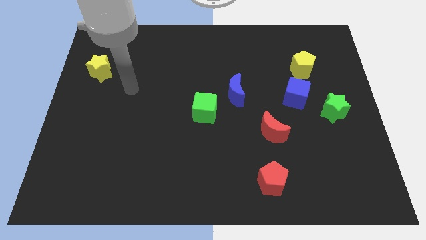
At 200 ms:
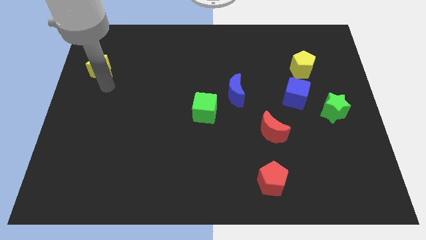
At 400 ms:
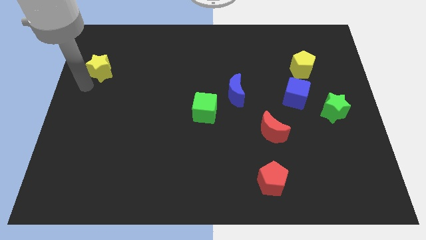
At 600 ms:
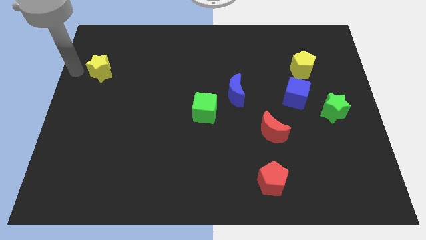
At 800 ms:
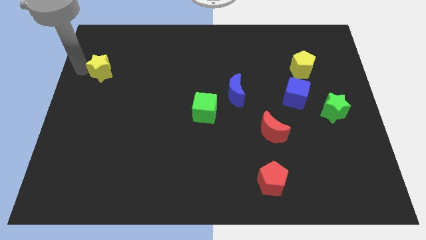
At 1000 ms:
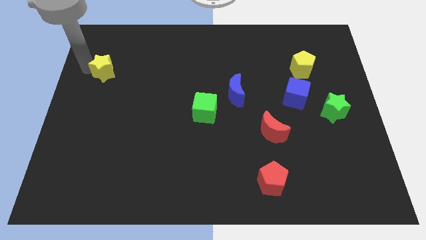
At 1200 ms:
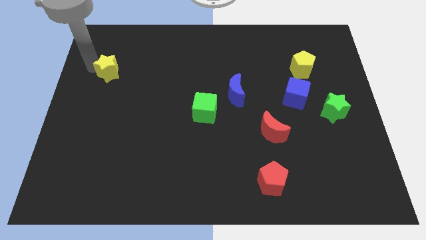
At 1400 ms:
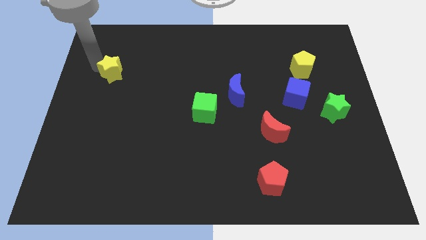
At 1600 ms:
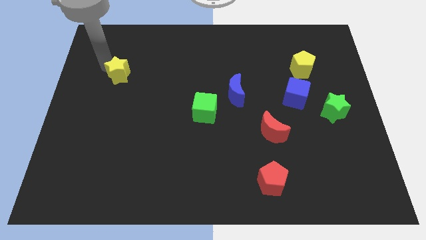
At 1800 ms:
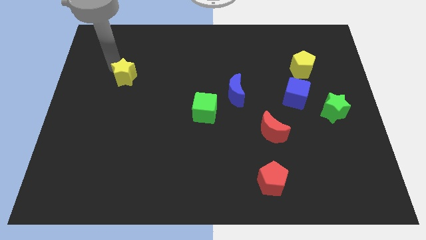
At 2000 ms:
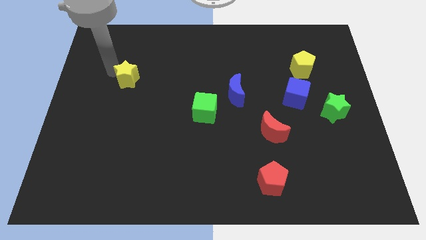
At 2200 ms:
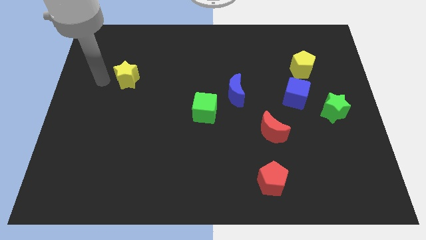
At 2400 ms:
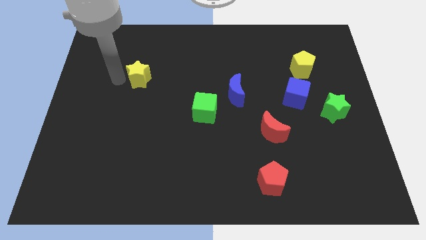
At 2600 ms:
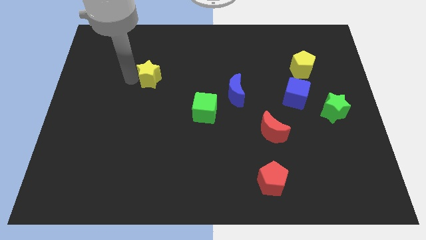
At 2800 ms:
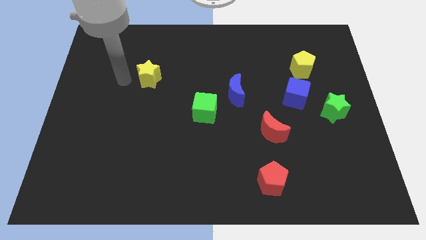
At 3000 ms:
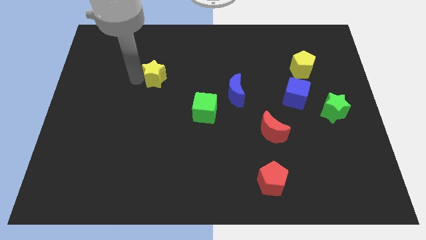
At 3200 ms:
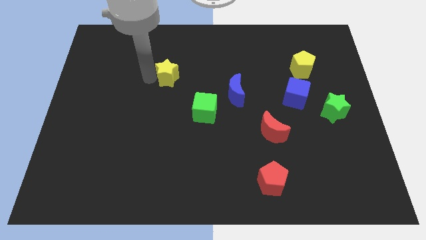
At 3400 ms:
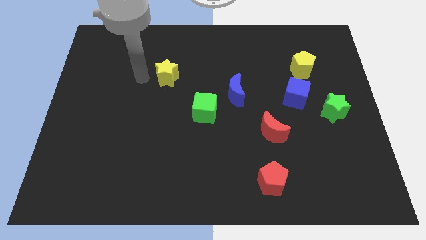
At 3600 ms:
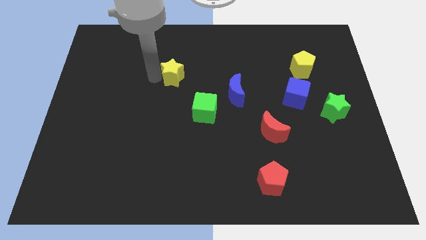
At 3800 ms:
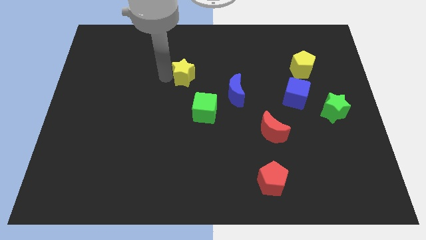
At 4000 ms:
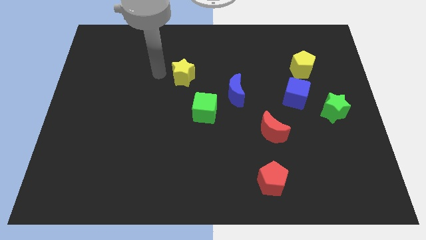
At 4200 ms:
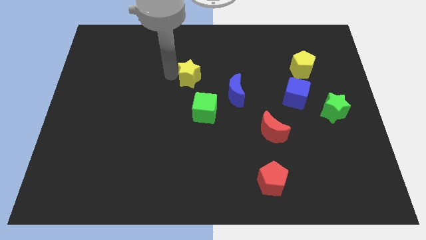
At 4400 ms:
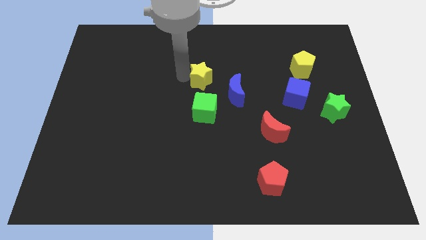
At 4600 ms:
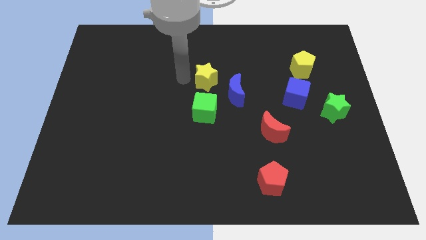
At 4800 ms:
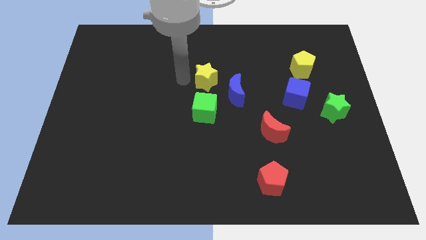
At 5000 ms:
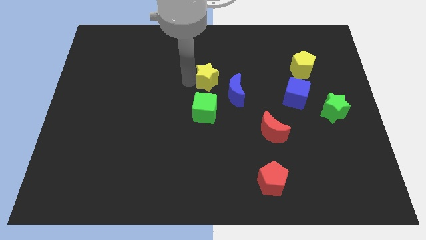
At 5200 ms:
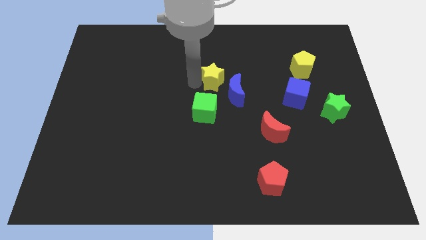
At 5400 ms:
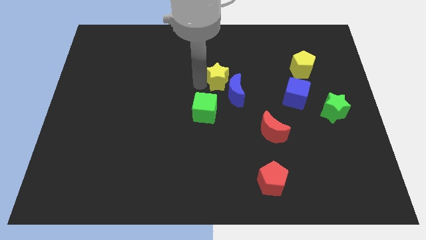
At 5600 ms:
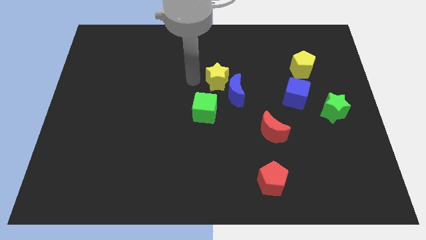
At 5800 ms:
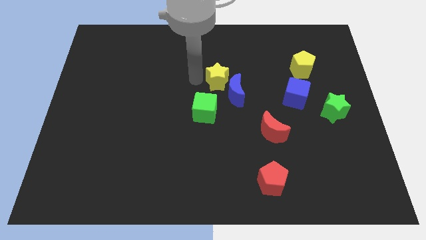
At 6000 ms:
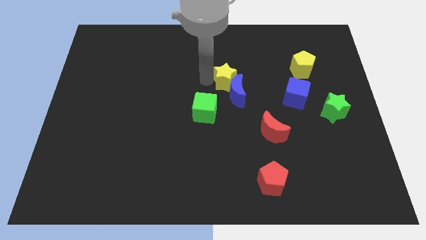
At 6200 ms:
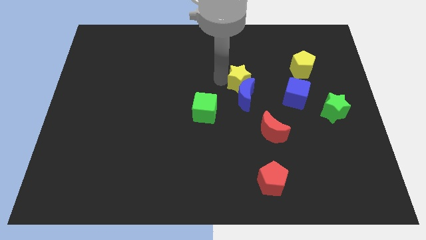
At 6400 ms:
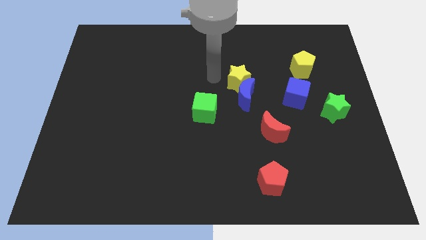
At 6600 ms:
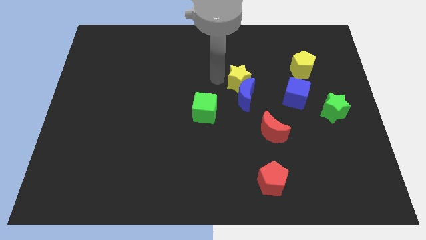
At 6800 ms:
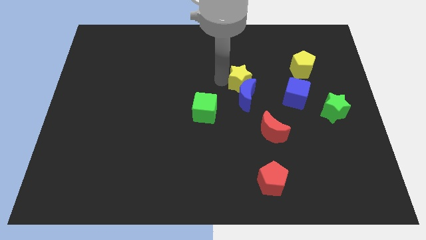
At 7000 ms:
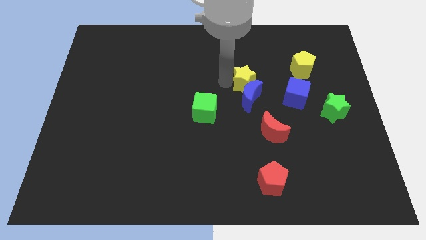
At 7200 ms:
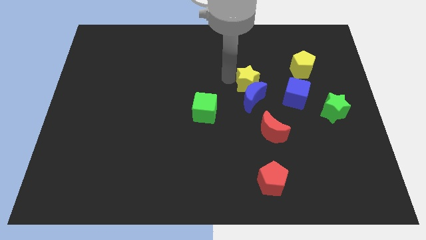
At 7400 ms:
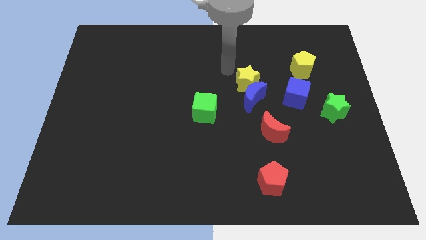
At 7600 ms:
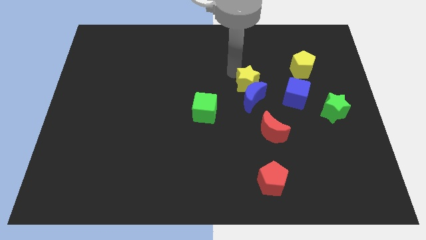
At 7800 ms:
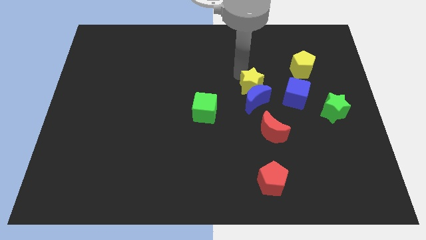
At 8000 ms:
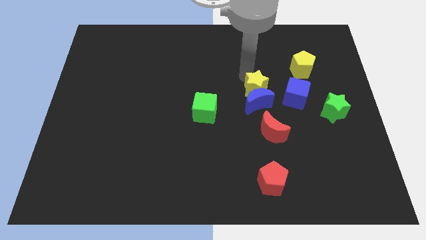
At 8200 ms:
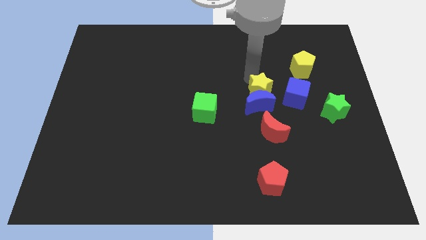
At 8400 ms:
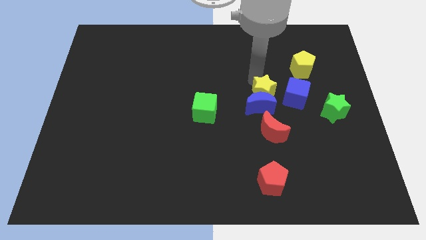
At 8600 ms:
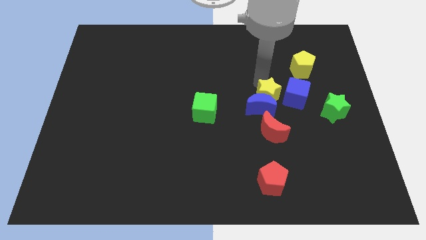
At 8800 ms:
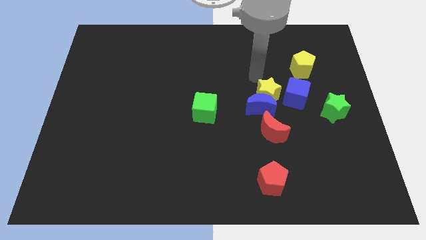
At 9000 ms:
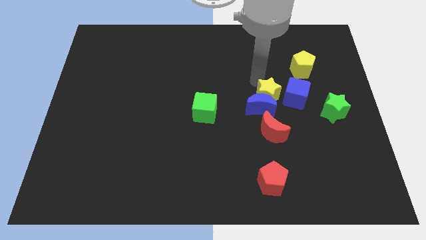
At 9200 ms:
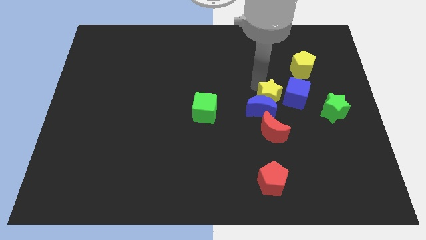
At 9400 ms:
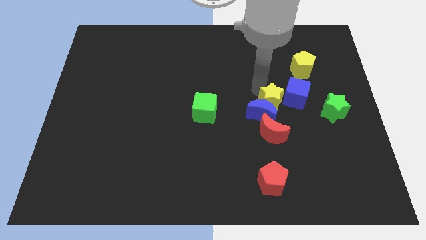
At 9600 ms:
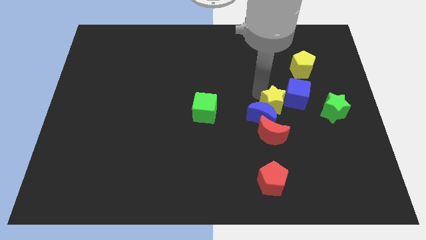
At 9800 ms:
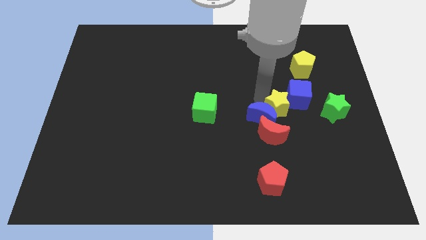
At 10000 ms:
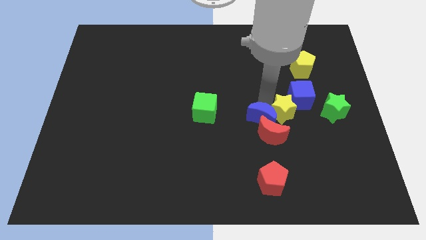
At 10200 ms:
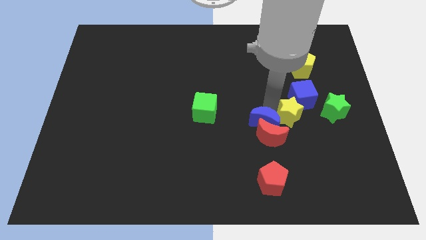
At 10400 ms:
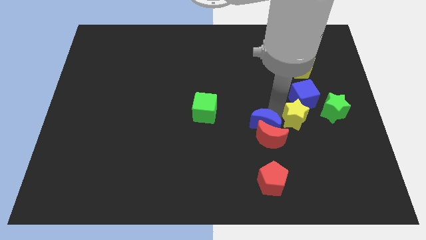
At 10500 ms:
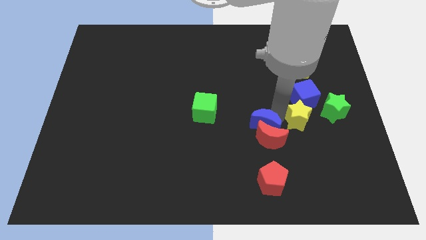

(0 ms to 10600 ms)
move the yellow star to the bottom left of the green star

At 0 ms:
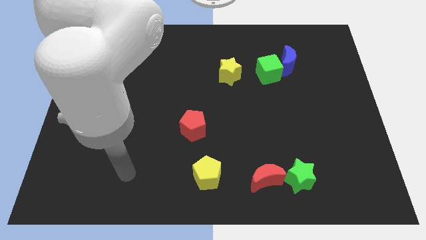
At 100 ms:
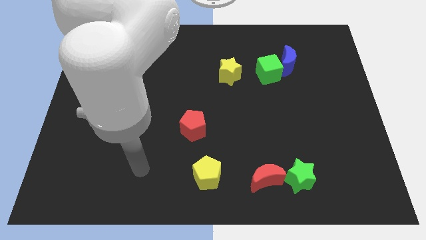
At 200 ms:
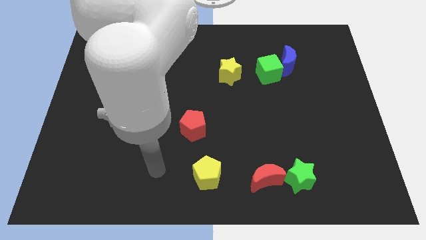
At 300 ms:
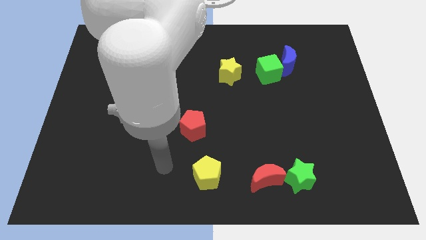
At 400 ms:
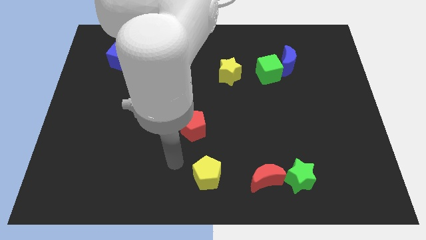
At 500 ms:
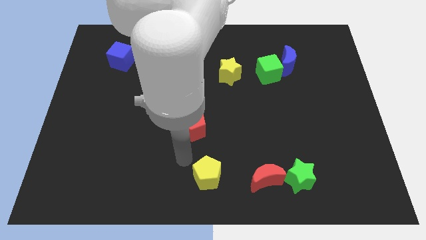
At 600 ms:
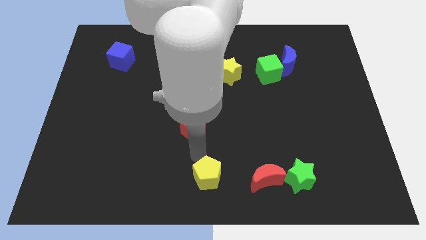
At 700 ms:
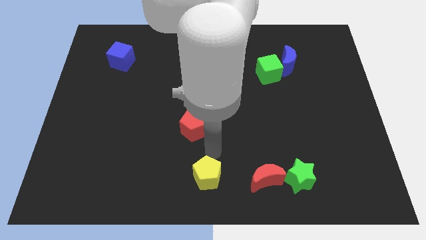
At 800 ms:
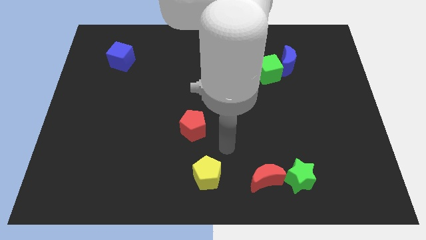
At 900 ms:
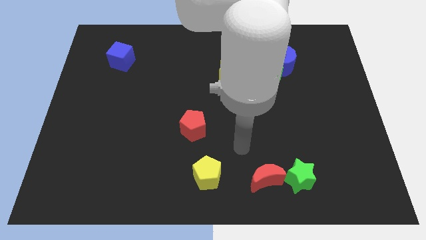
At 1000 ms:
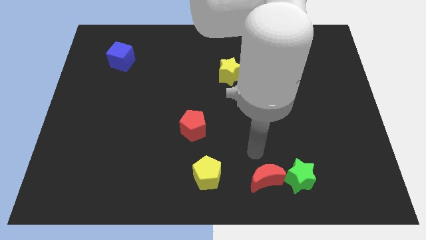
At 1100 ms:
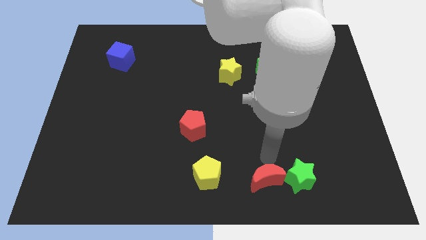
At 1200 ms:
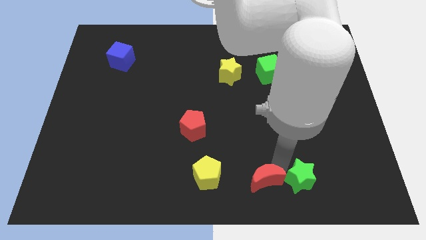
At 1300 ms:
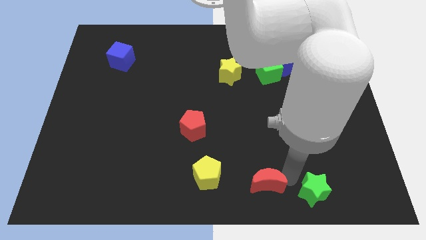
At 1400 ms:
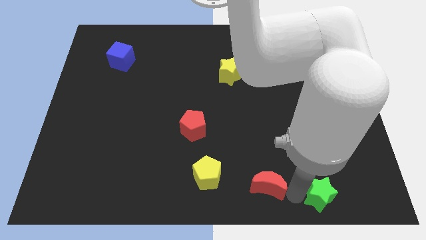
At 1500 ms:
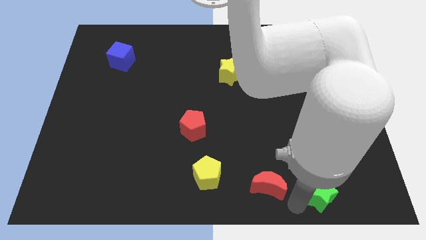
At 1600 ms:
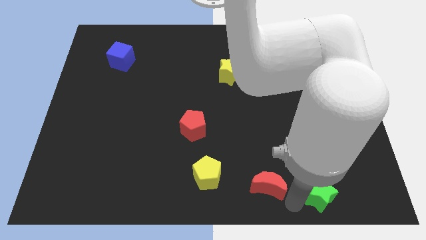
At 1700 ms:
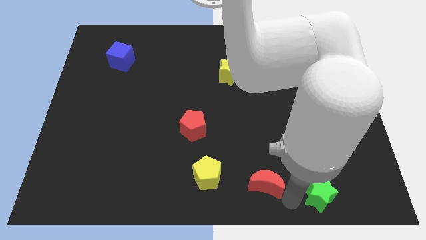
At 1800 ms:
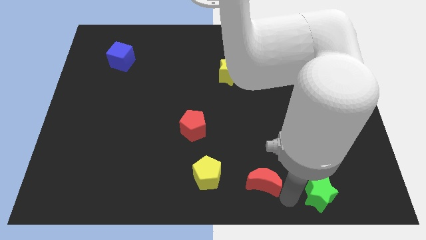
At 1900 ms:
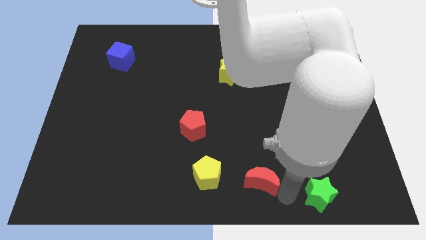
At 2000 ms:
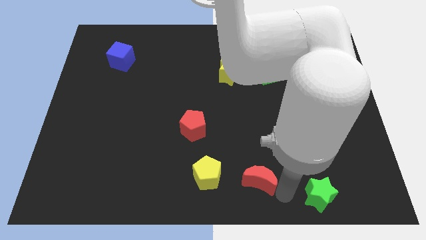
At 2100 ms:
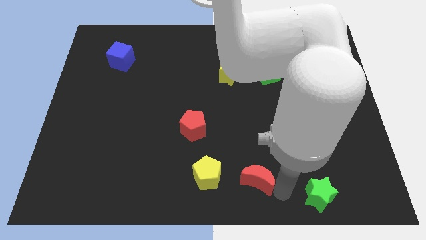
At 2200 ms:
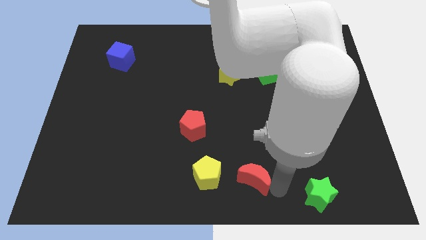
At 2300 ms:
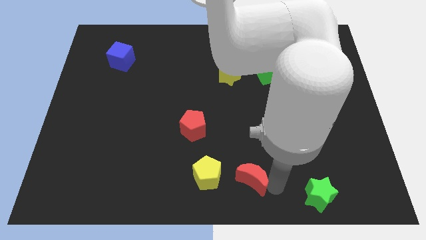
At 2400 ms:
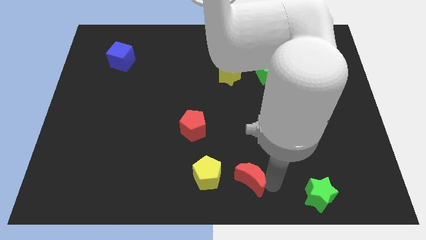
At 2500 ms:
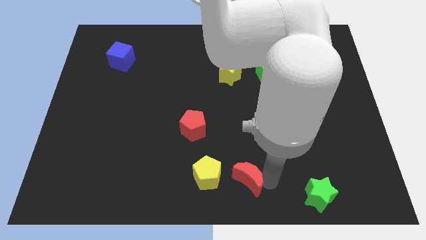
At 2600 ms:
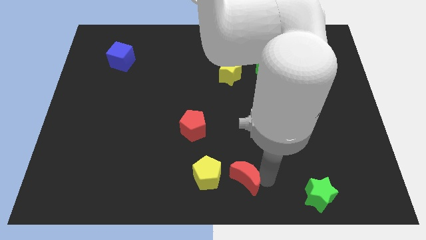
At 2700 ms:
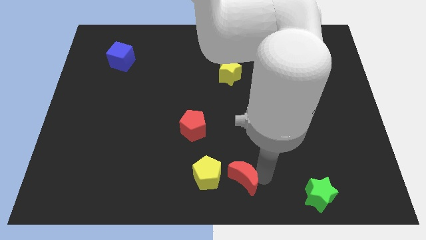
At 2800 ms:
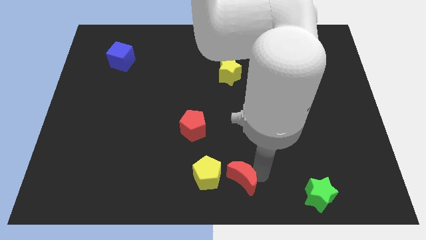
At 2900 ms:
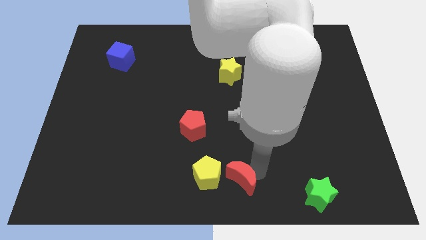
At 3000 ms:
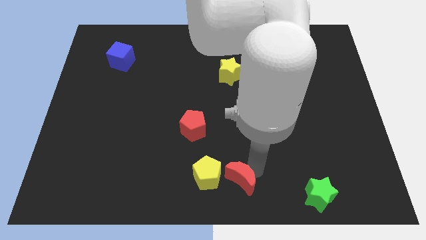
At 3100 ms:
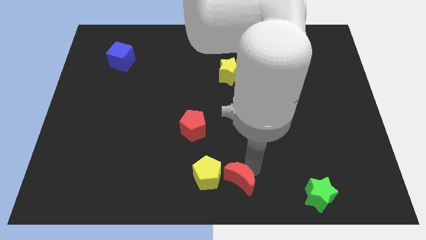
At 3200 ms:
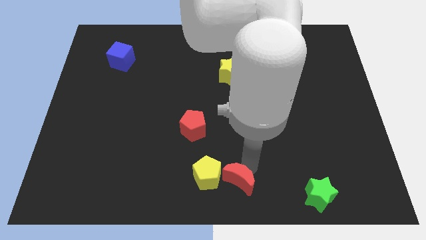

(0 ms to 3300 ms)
slide the red moon to the top right side of the yellow pentagon
